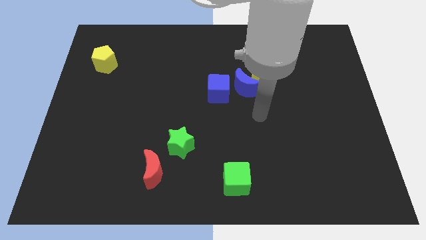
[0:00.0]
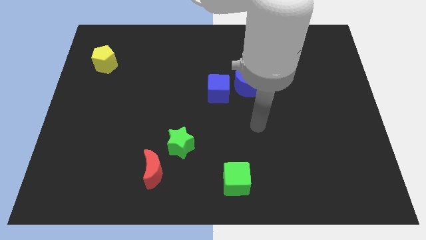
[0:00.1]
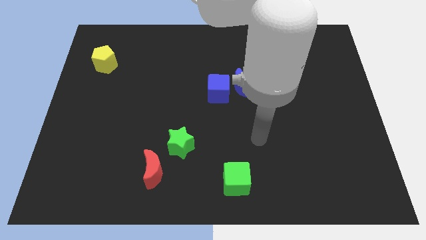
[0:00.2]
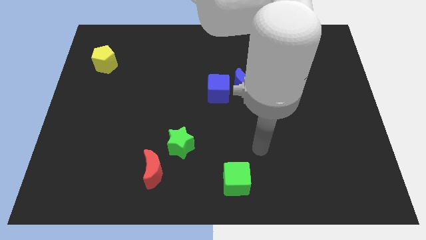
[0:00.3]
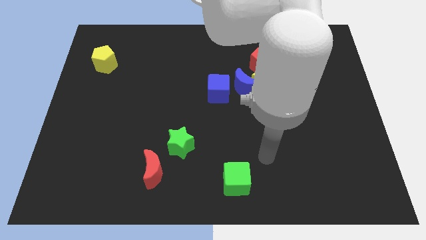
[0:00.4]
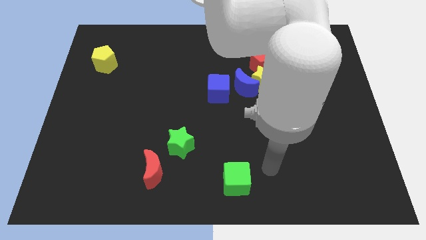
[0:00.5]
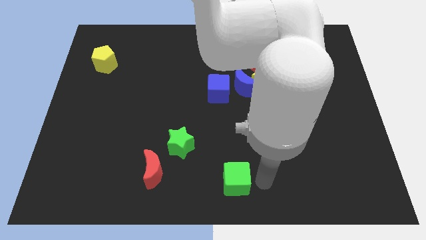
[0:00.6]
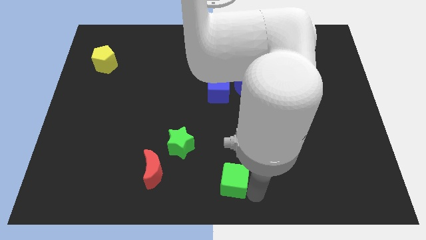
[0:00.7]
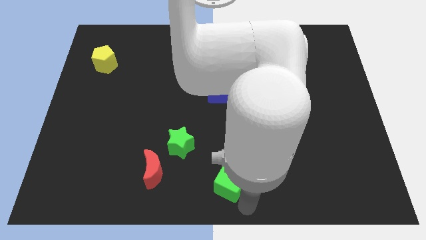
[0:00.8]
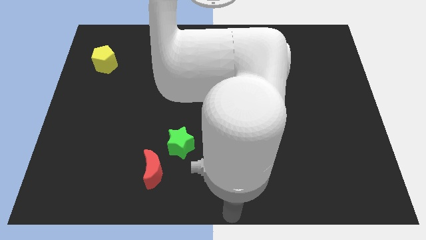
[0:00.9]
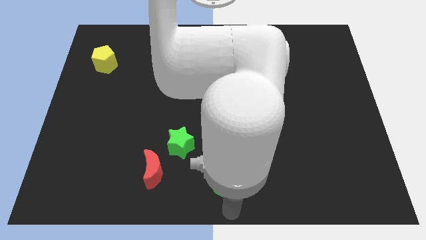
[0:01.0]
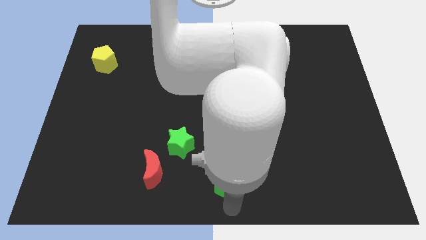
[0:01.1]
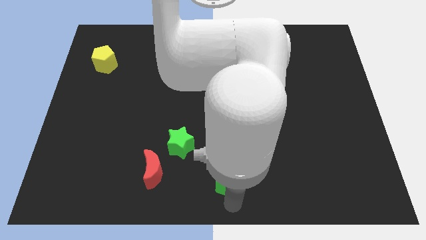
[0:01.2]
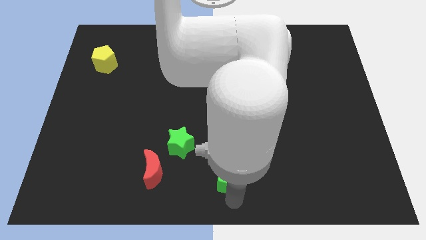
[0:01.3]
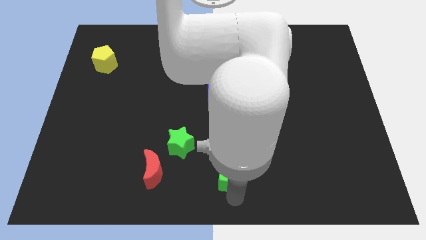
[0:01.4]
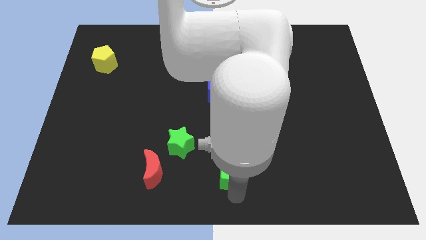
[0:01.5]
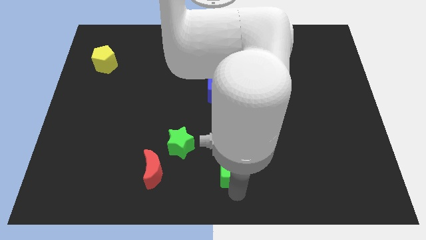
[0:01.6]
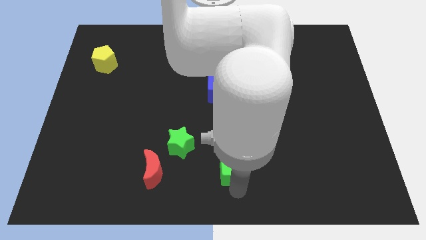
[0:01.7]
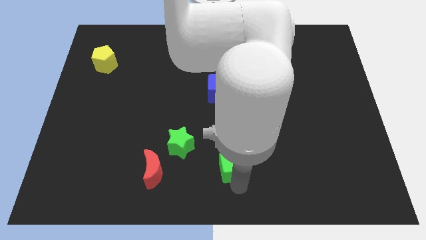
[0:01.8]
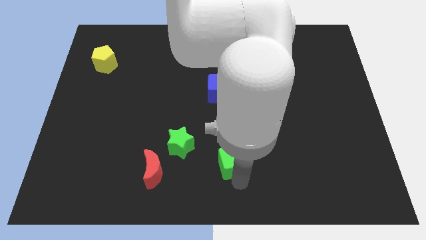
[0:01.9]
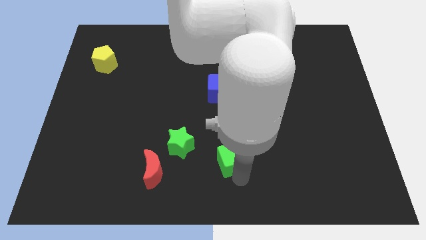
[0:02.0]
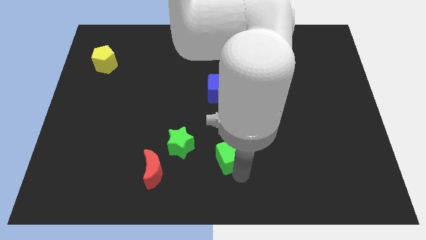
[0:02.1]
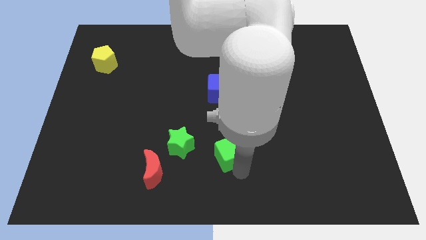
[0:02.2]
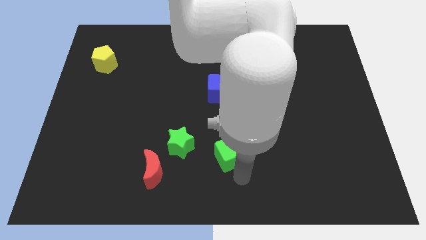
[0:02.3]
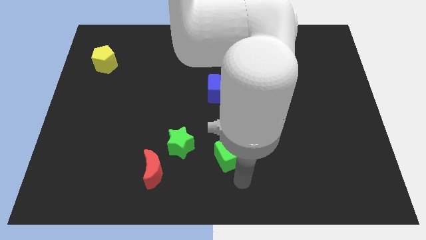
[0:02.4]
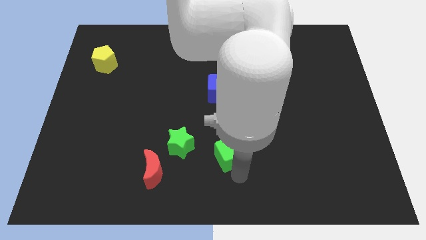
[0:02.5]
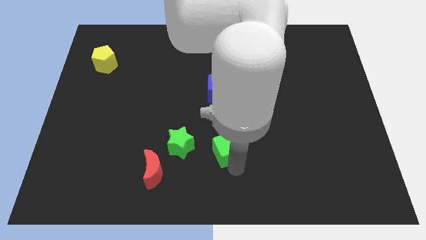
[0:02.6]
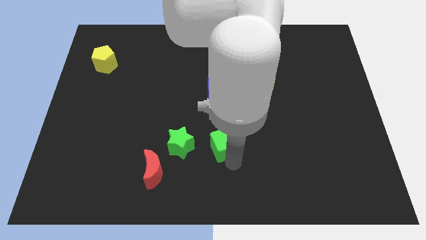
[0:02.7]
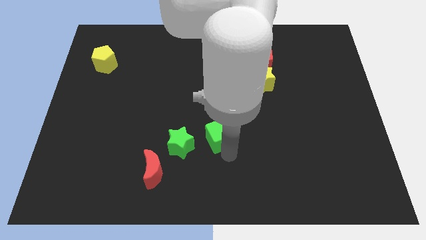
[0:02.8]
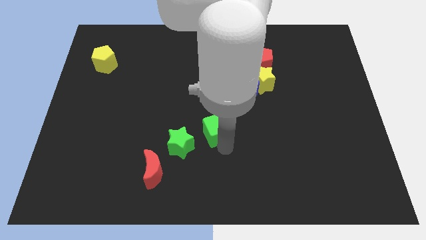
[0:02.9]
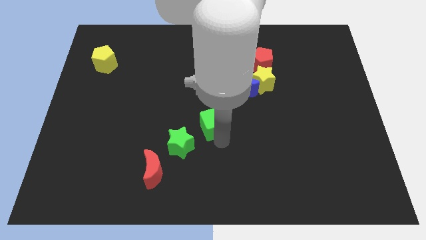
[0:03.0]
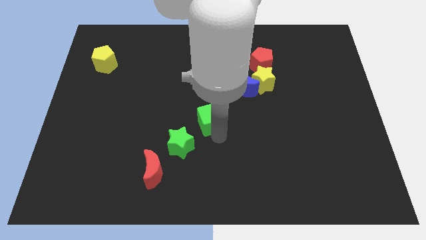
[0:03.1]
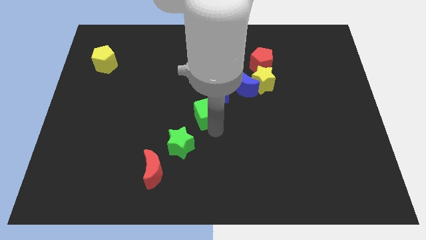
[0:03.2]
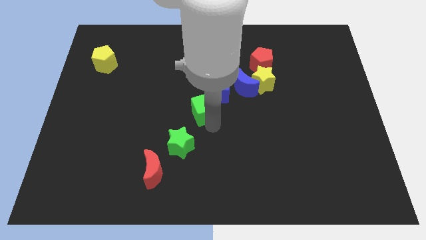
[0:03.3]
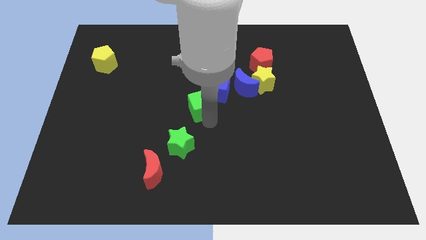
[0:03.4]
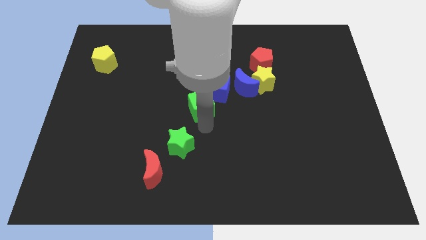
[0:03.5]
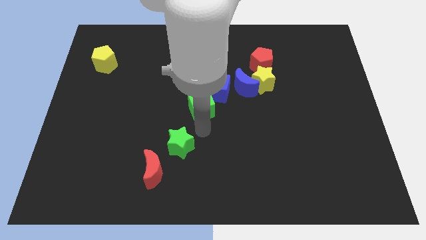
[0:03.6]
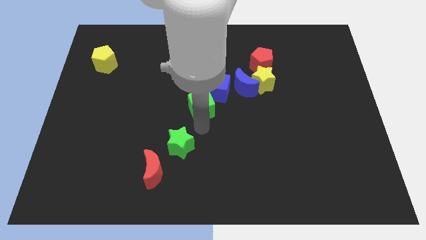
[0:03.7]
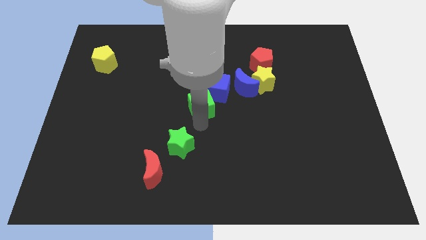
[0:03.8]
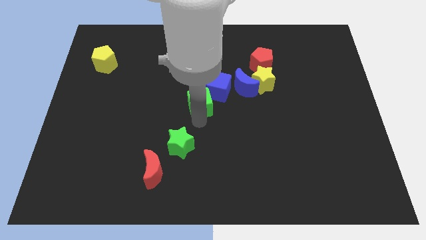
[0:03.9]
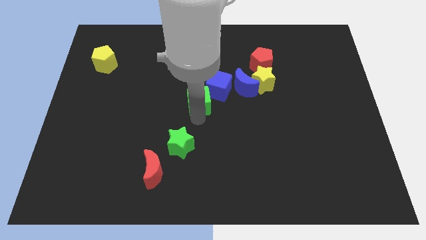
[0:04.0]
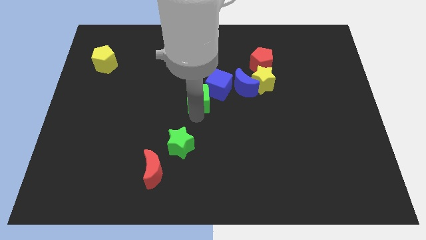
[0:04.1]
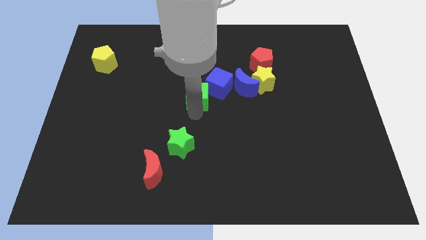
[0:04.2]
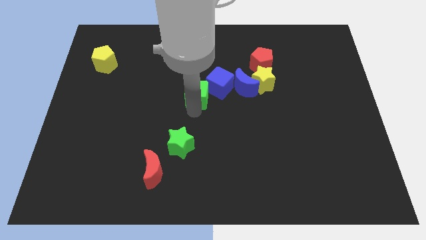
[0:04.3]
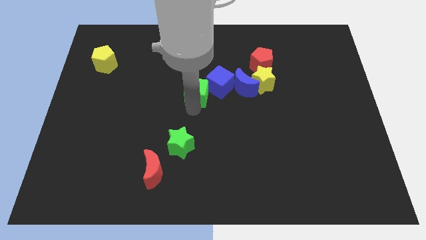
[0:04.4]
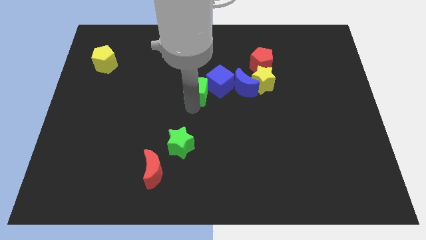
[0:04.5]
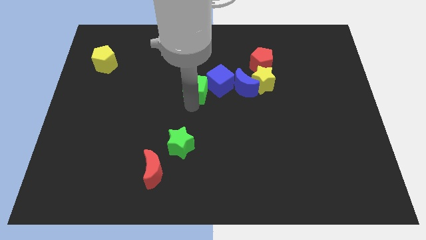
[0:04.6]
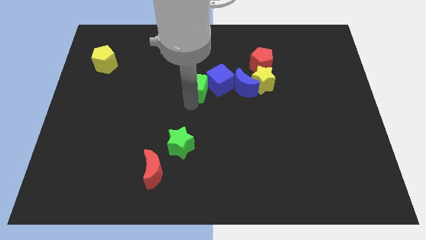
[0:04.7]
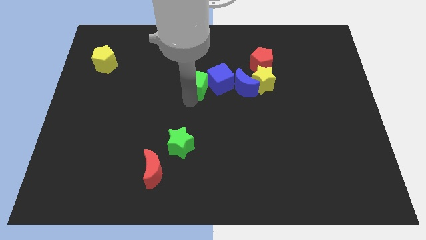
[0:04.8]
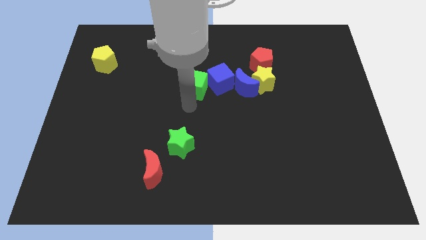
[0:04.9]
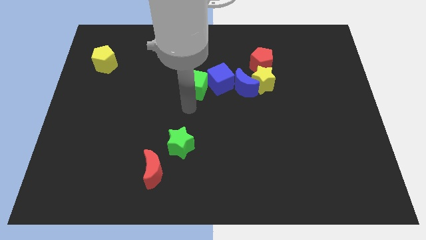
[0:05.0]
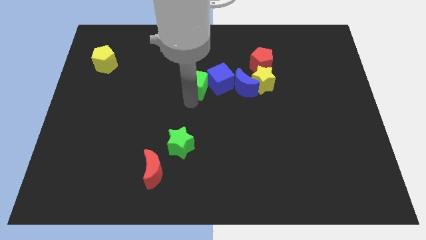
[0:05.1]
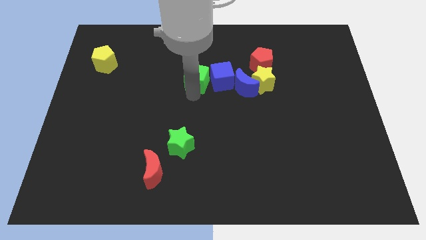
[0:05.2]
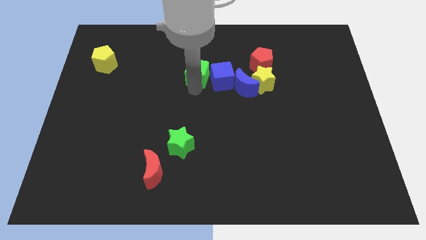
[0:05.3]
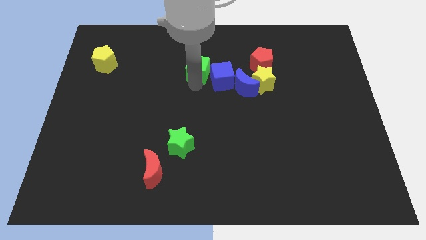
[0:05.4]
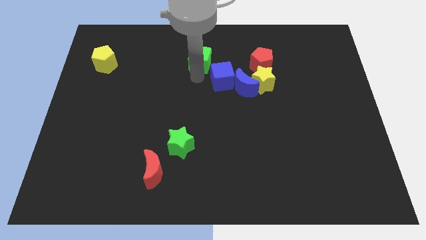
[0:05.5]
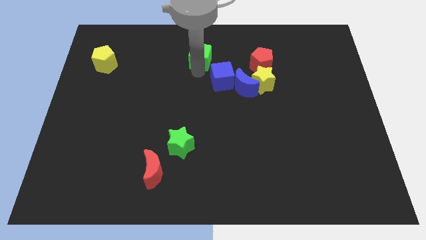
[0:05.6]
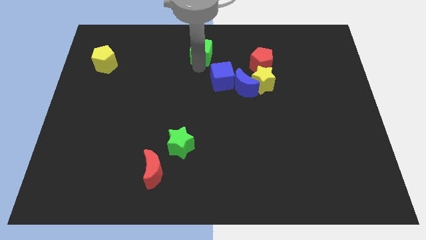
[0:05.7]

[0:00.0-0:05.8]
move the green cube to the top
